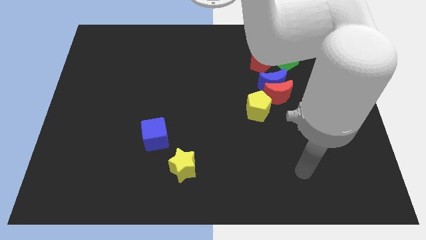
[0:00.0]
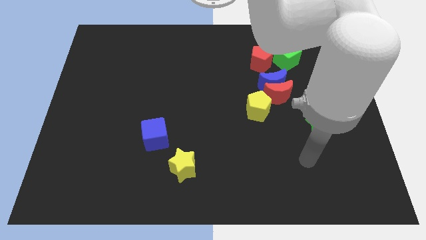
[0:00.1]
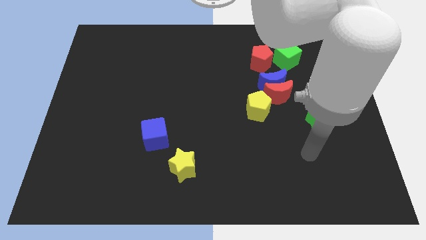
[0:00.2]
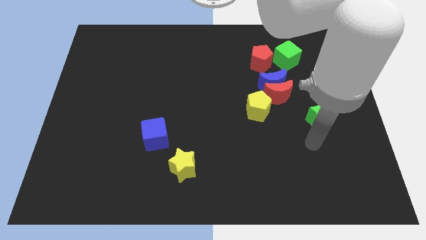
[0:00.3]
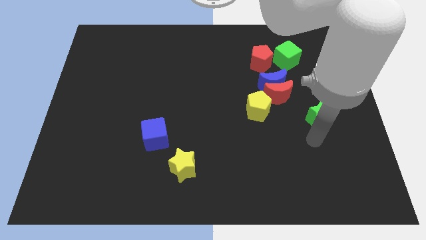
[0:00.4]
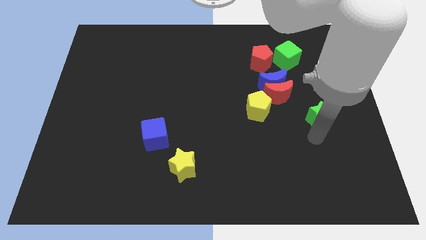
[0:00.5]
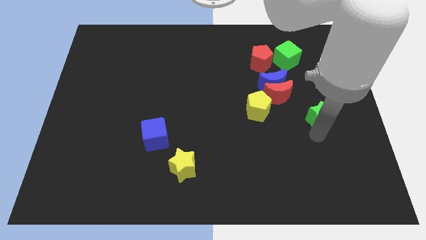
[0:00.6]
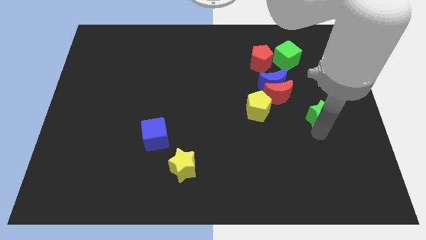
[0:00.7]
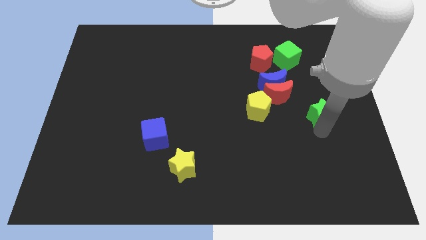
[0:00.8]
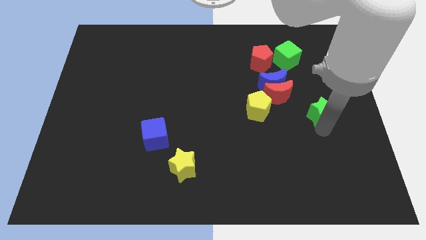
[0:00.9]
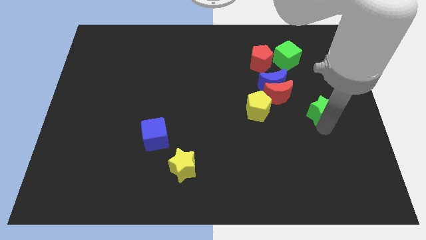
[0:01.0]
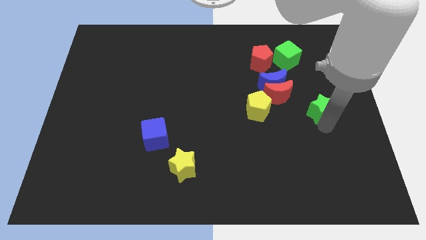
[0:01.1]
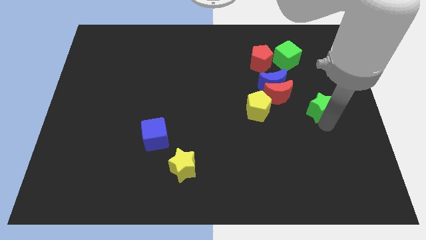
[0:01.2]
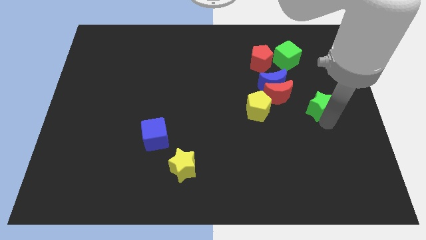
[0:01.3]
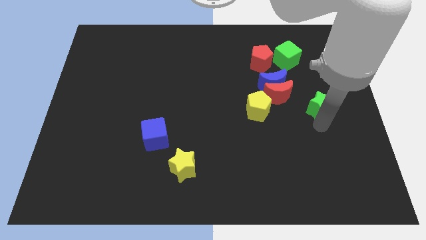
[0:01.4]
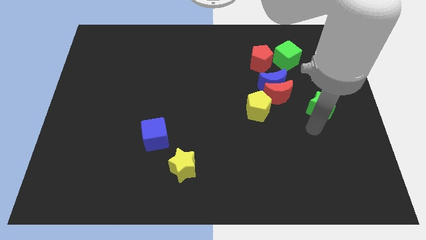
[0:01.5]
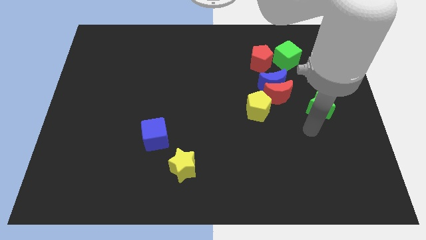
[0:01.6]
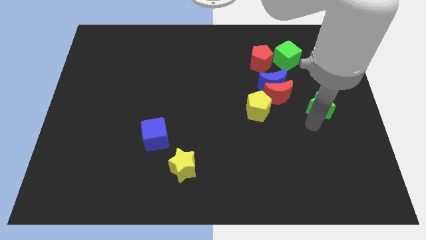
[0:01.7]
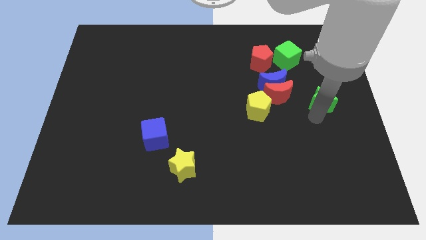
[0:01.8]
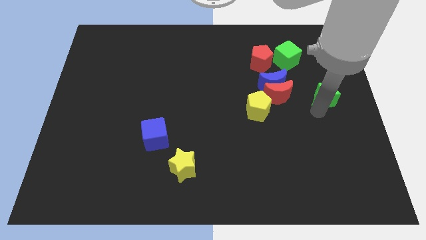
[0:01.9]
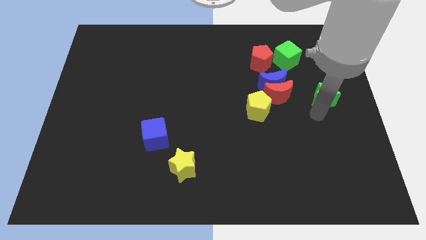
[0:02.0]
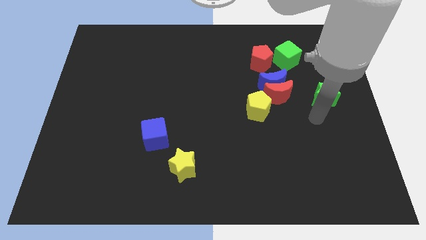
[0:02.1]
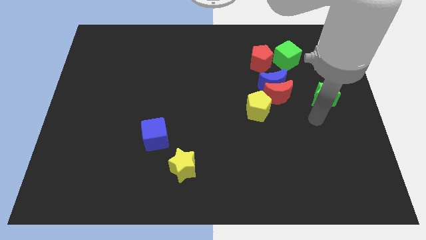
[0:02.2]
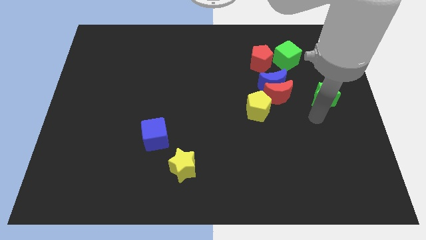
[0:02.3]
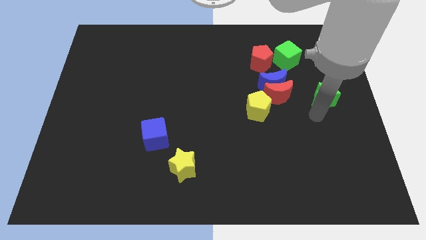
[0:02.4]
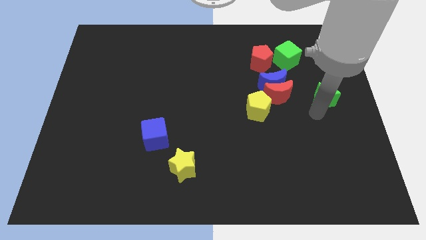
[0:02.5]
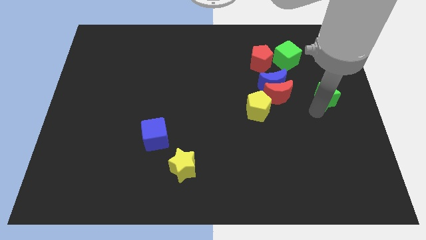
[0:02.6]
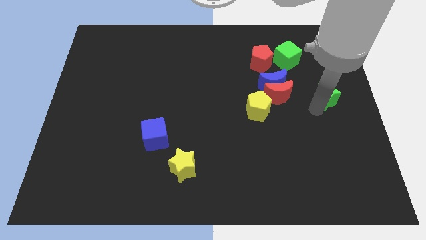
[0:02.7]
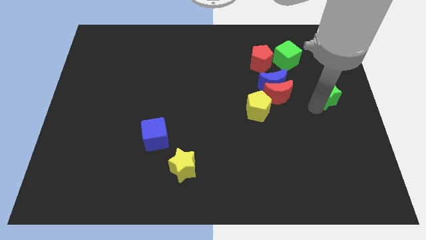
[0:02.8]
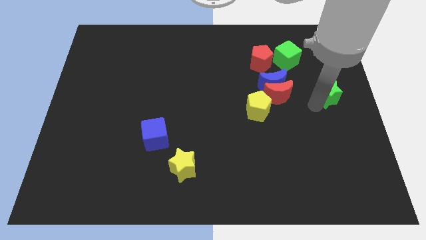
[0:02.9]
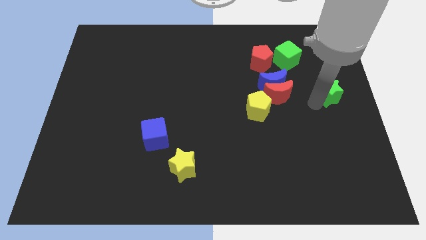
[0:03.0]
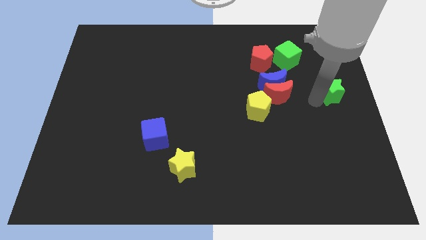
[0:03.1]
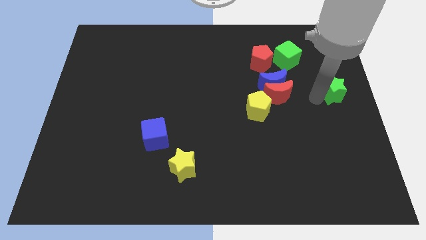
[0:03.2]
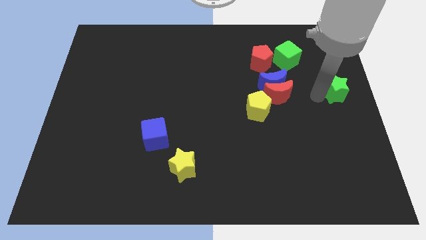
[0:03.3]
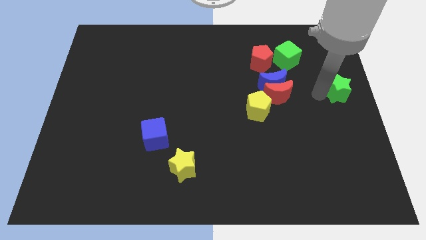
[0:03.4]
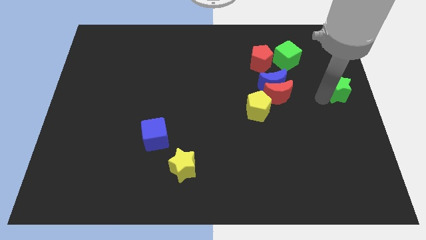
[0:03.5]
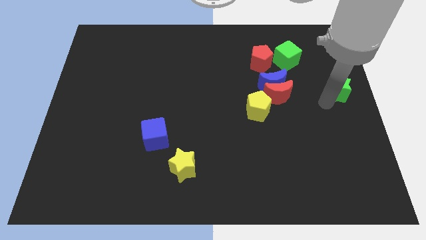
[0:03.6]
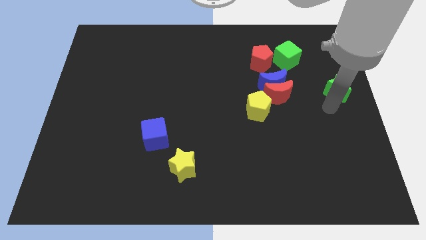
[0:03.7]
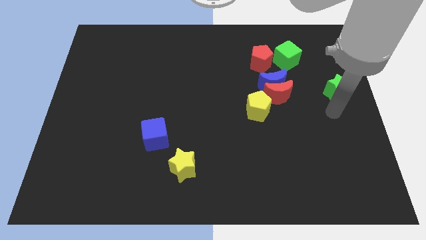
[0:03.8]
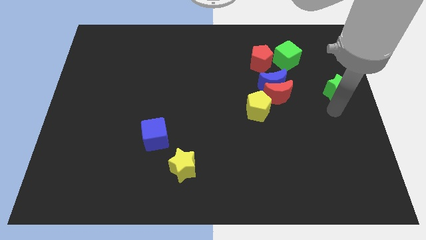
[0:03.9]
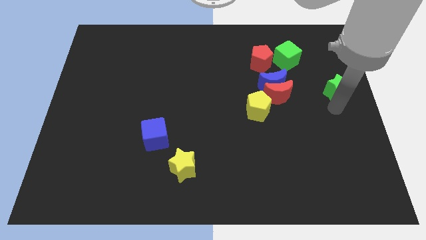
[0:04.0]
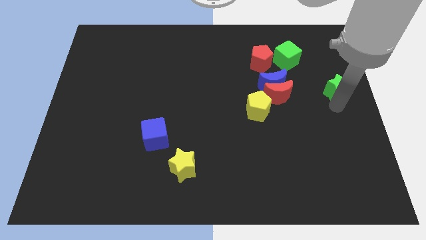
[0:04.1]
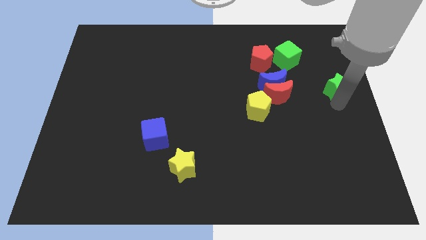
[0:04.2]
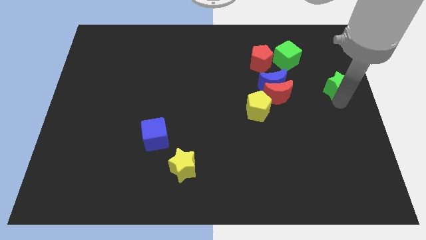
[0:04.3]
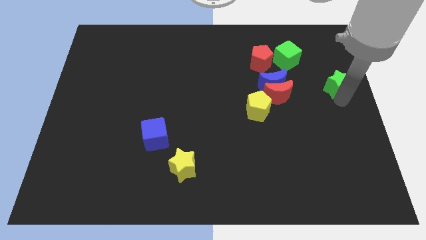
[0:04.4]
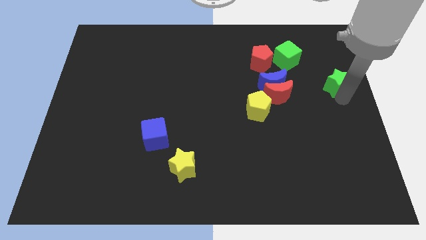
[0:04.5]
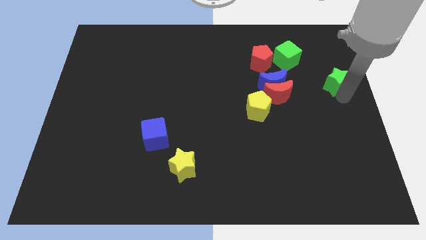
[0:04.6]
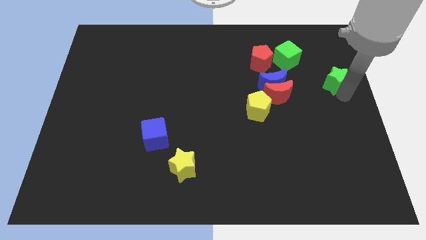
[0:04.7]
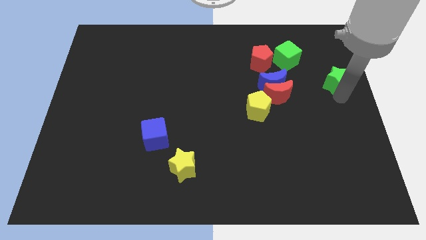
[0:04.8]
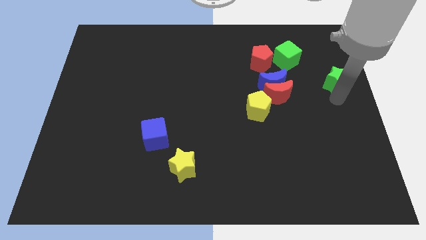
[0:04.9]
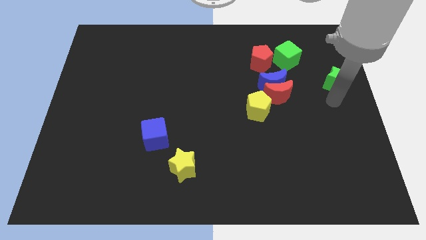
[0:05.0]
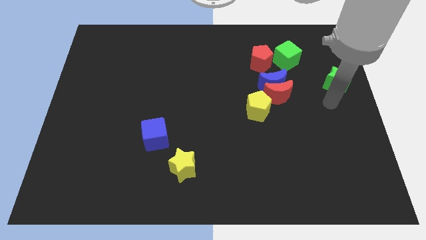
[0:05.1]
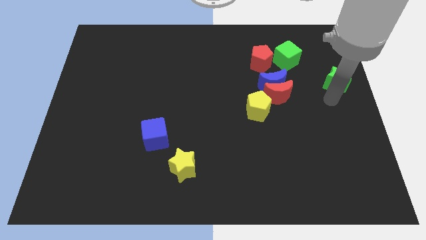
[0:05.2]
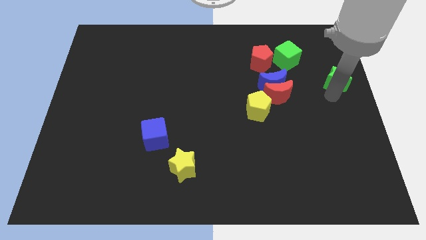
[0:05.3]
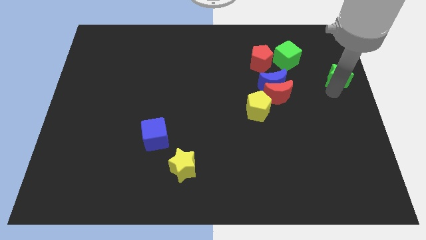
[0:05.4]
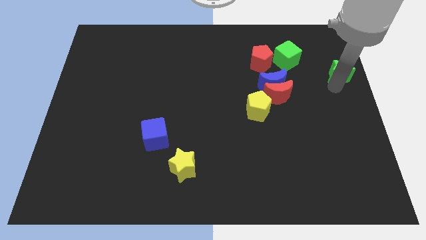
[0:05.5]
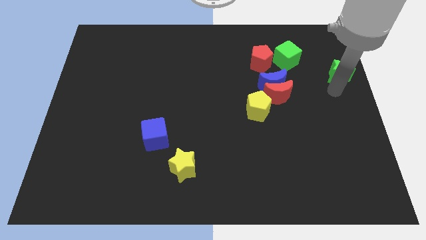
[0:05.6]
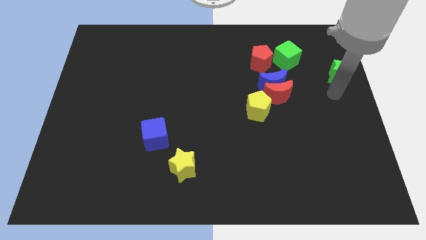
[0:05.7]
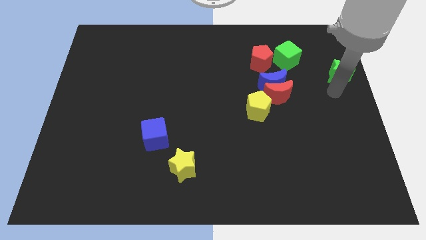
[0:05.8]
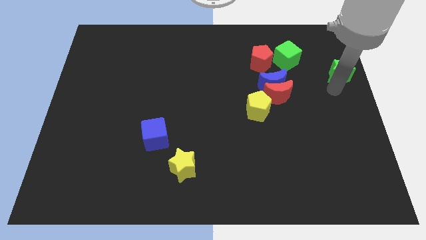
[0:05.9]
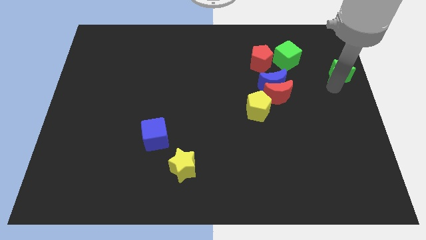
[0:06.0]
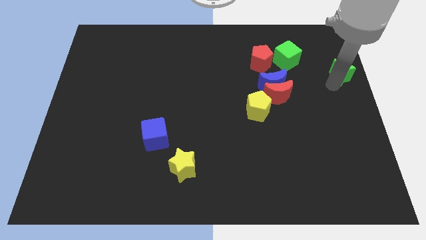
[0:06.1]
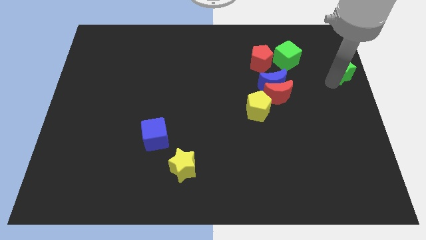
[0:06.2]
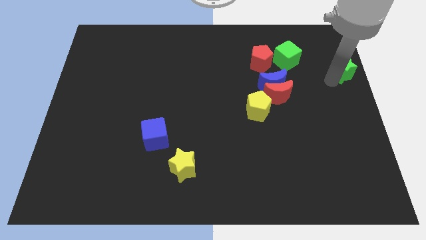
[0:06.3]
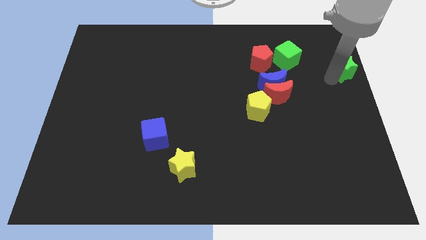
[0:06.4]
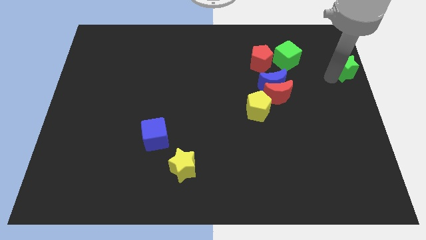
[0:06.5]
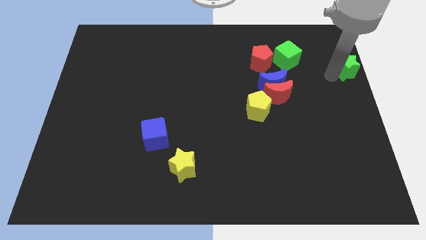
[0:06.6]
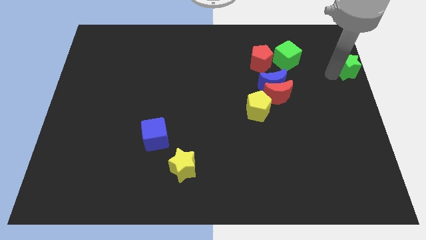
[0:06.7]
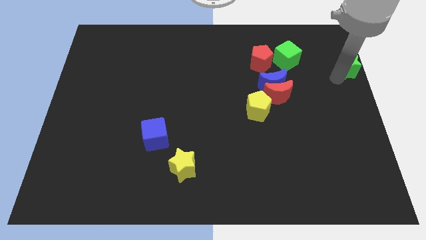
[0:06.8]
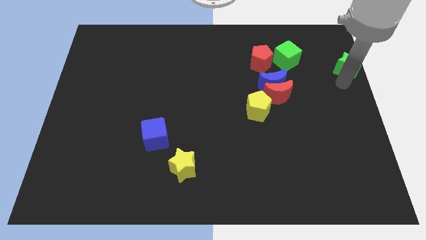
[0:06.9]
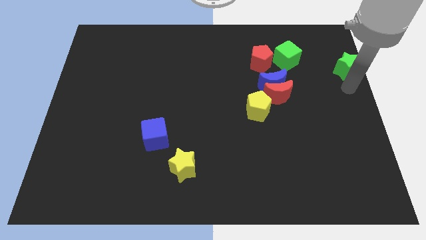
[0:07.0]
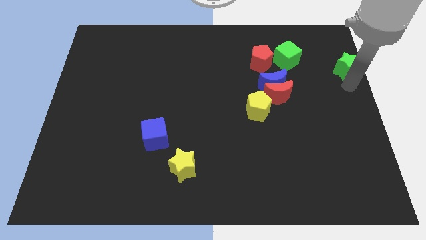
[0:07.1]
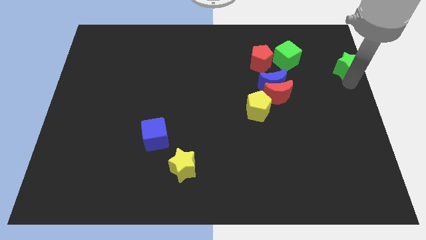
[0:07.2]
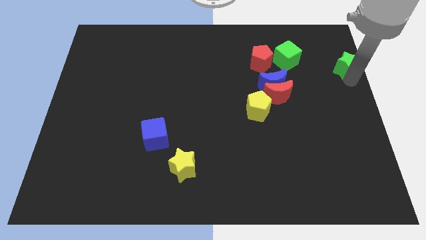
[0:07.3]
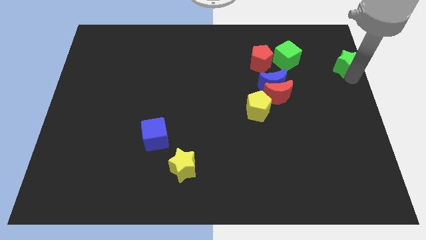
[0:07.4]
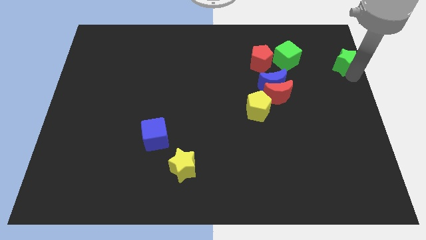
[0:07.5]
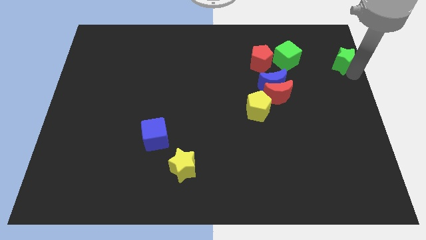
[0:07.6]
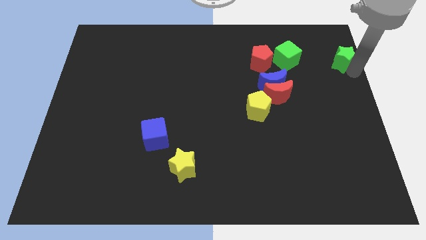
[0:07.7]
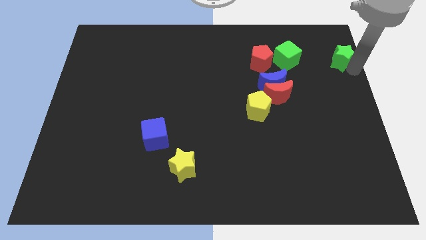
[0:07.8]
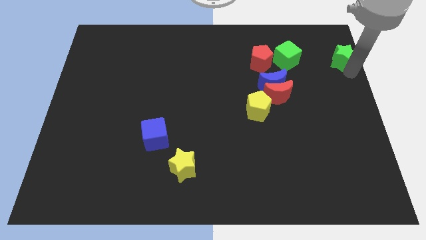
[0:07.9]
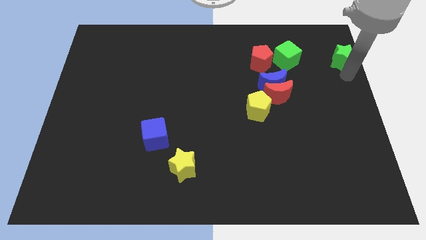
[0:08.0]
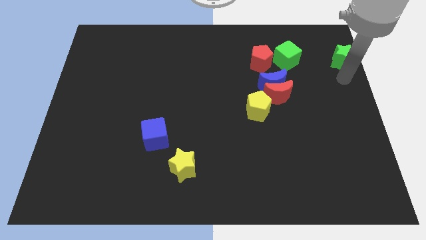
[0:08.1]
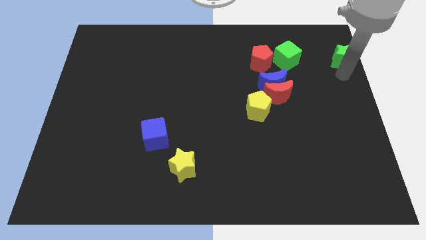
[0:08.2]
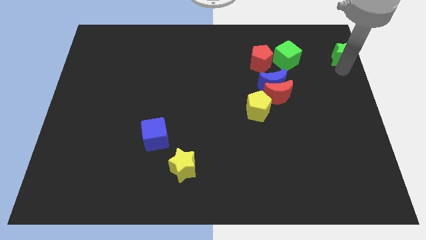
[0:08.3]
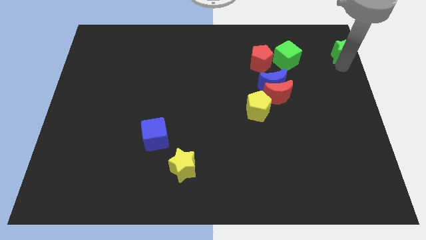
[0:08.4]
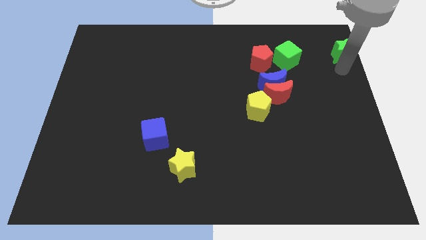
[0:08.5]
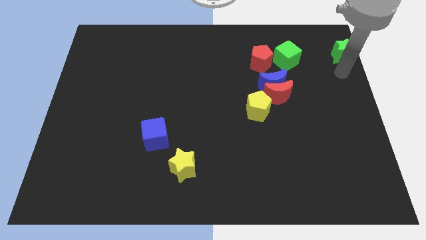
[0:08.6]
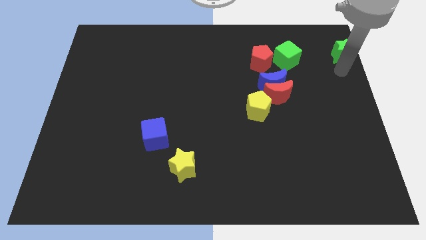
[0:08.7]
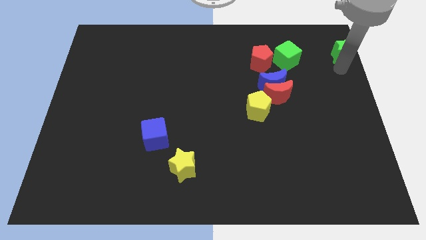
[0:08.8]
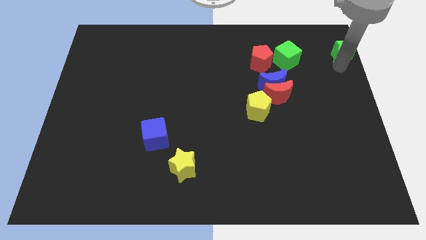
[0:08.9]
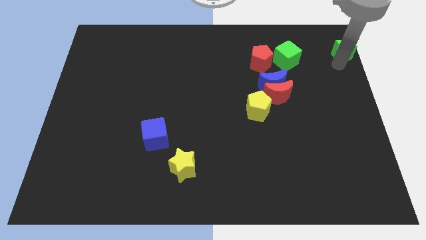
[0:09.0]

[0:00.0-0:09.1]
slide the green star to the top right of the board
